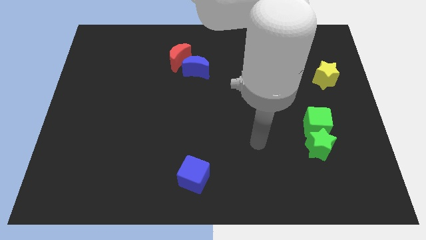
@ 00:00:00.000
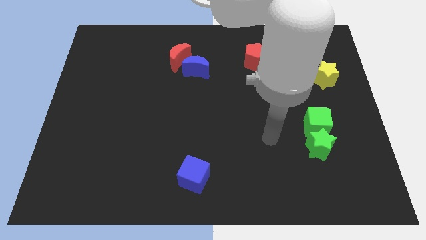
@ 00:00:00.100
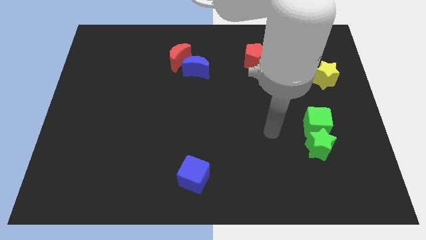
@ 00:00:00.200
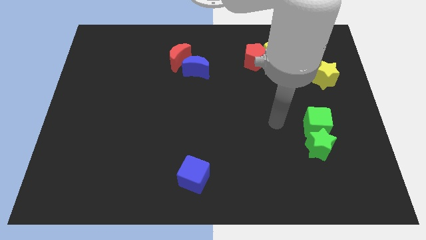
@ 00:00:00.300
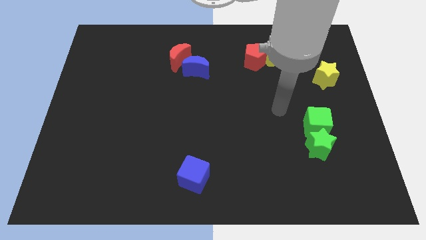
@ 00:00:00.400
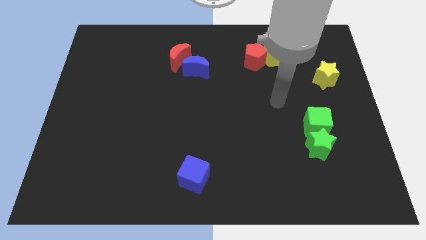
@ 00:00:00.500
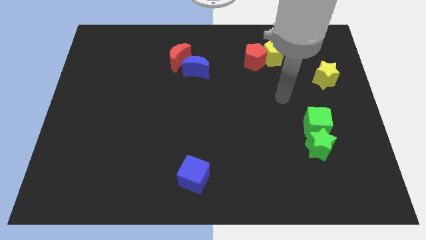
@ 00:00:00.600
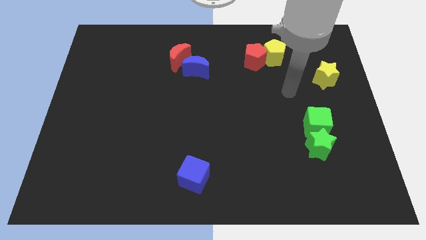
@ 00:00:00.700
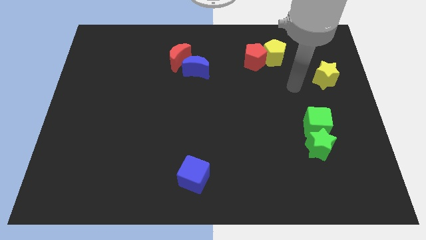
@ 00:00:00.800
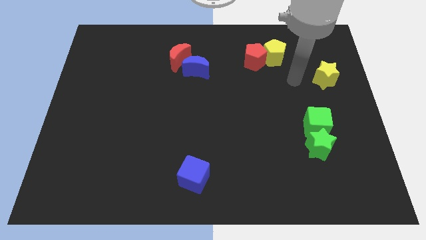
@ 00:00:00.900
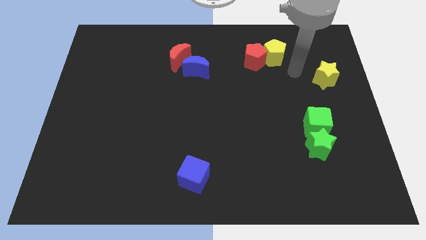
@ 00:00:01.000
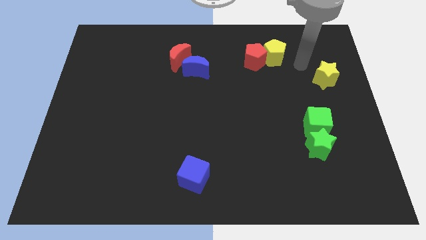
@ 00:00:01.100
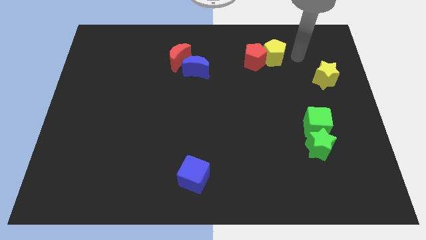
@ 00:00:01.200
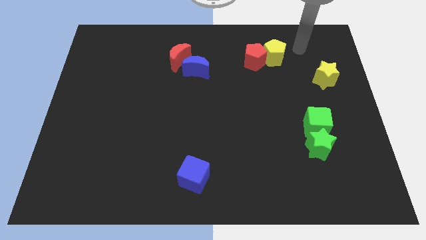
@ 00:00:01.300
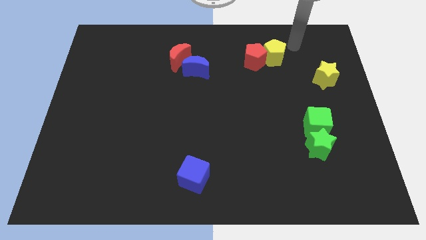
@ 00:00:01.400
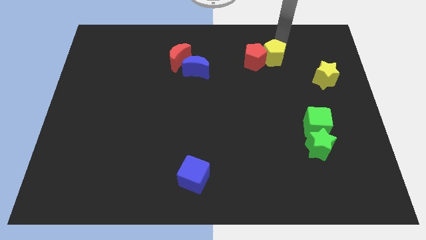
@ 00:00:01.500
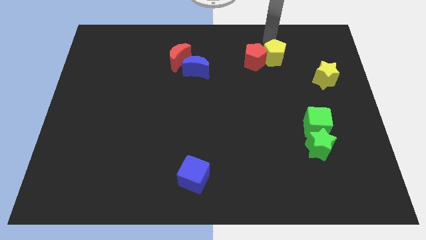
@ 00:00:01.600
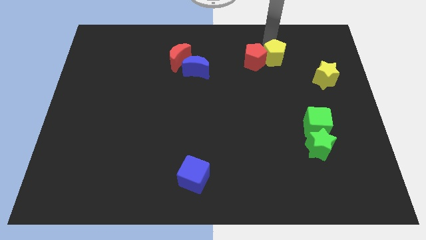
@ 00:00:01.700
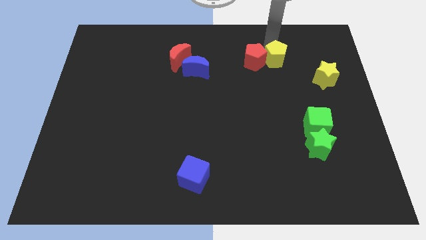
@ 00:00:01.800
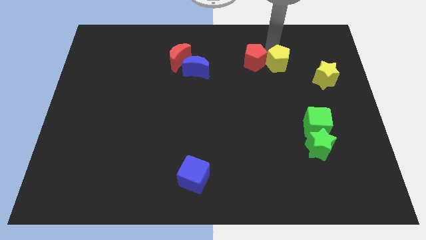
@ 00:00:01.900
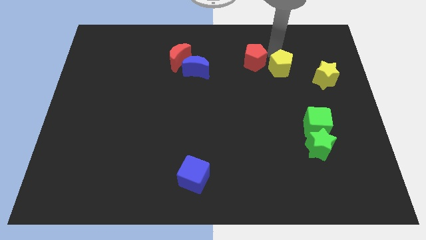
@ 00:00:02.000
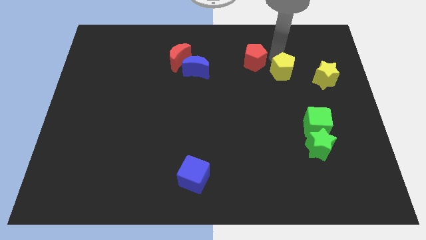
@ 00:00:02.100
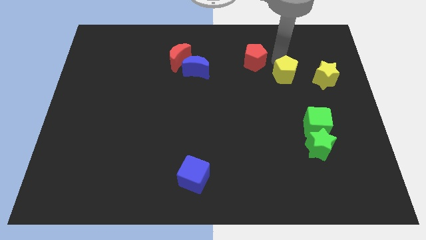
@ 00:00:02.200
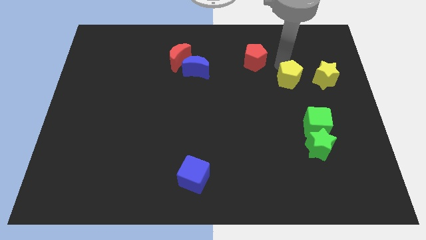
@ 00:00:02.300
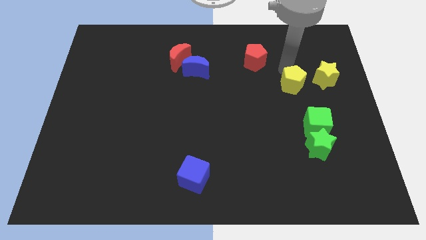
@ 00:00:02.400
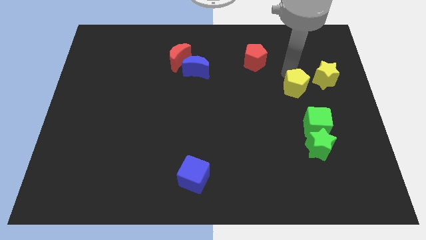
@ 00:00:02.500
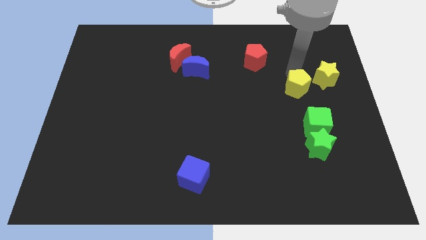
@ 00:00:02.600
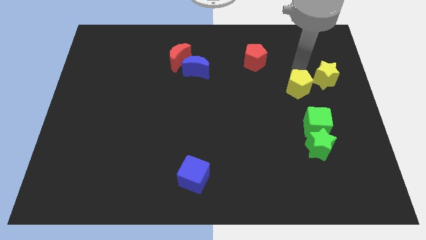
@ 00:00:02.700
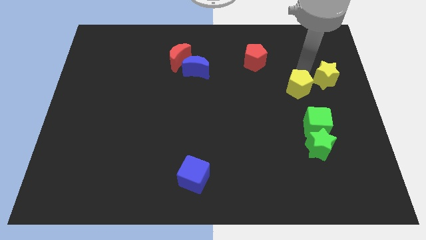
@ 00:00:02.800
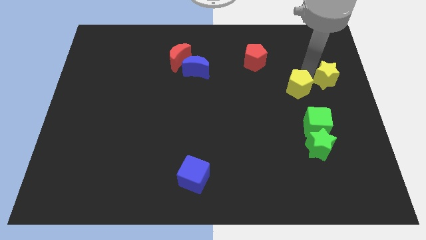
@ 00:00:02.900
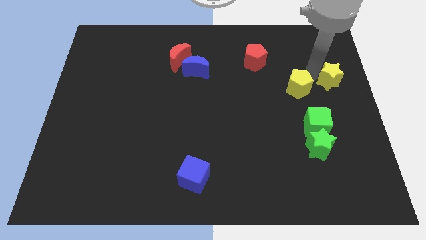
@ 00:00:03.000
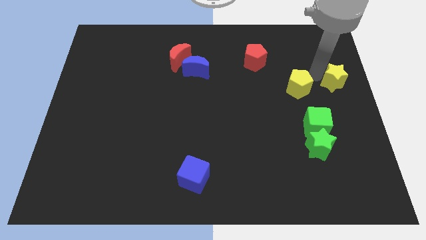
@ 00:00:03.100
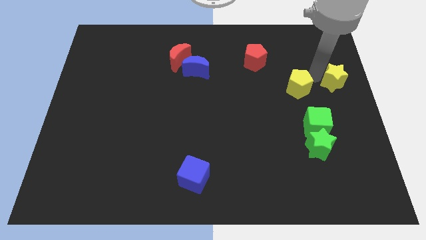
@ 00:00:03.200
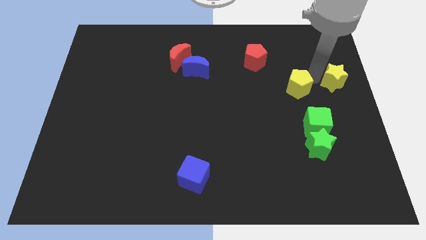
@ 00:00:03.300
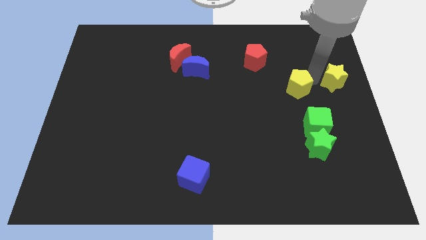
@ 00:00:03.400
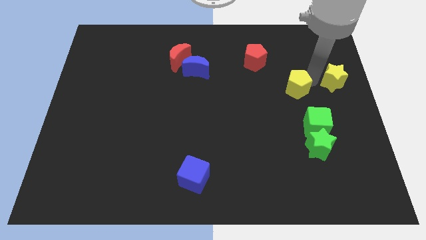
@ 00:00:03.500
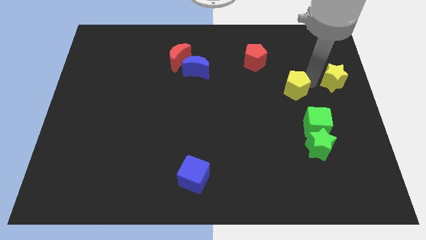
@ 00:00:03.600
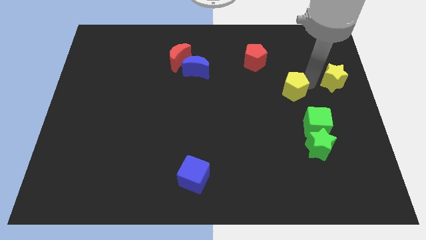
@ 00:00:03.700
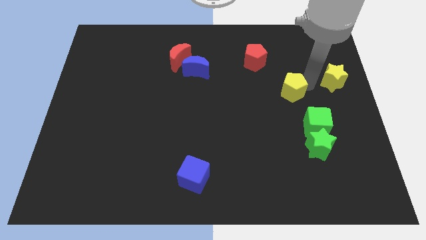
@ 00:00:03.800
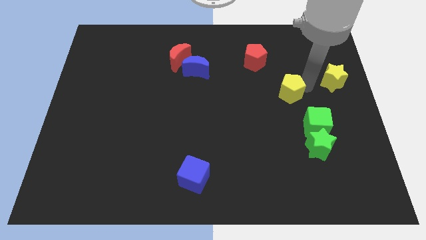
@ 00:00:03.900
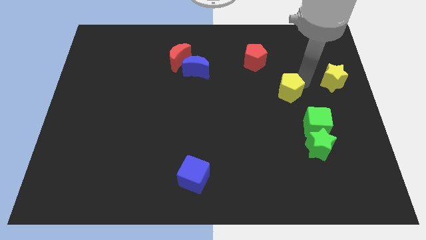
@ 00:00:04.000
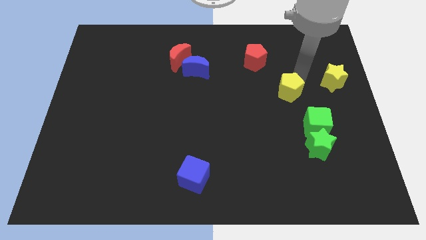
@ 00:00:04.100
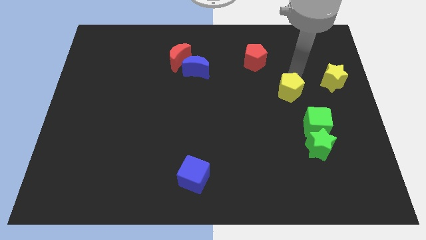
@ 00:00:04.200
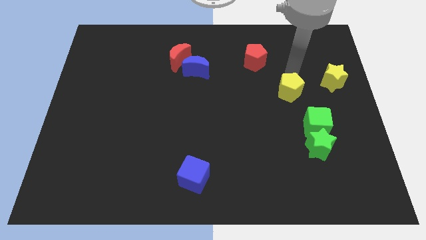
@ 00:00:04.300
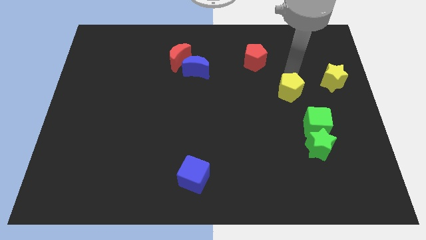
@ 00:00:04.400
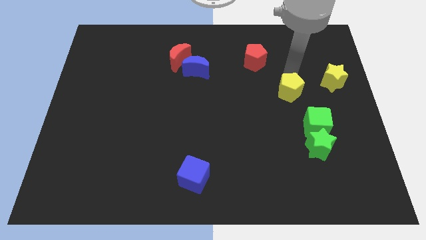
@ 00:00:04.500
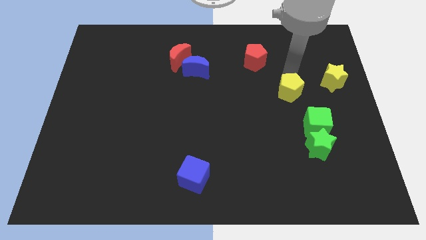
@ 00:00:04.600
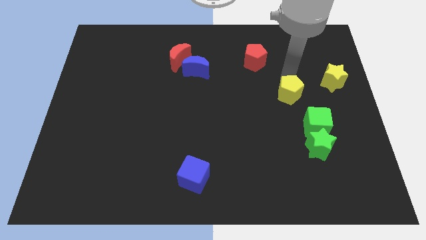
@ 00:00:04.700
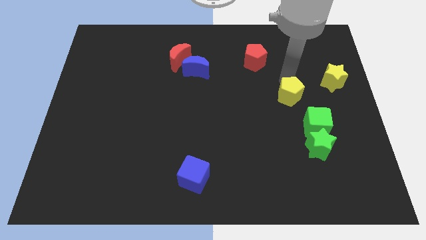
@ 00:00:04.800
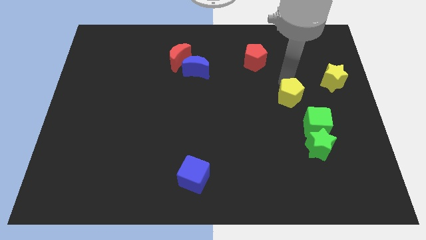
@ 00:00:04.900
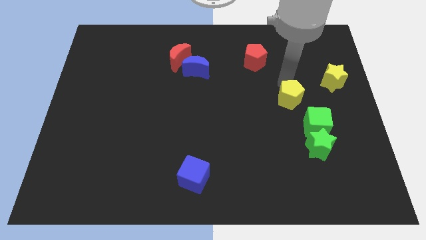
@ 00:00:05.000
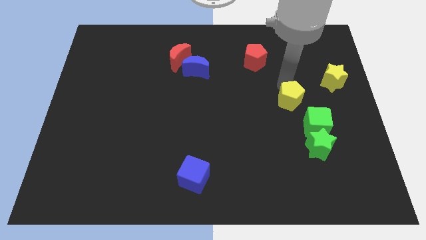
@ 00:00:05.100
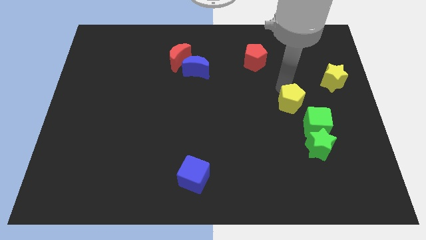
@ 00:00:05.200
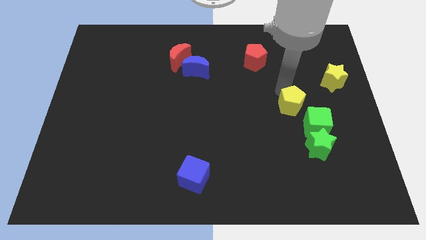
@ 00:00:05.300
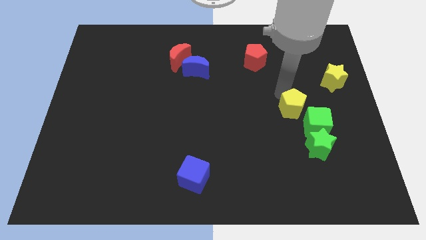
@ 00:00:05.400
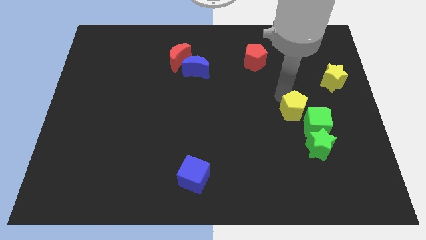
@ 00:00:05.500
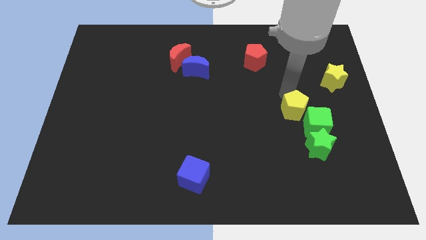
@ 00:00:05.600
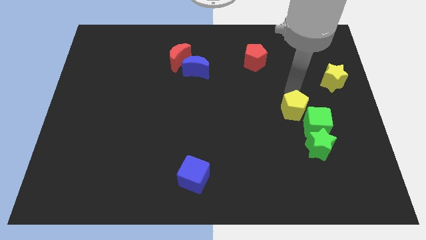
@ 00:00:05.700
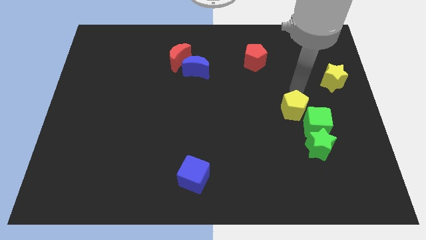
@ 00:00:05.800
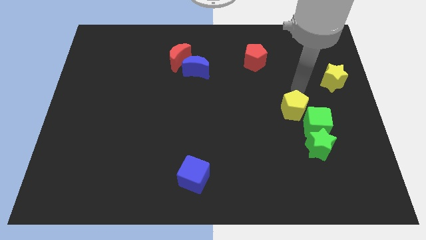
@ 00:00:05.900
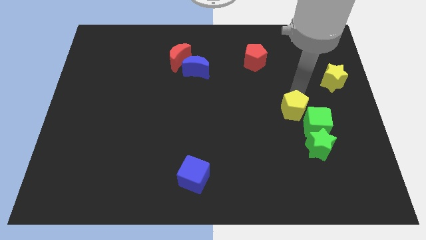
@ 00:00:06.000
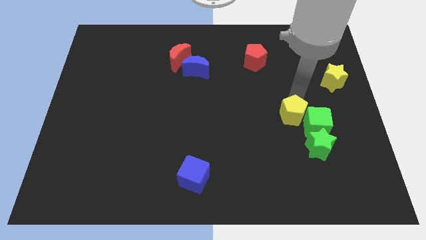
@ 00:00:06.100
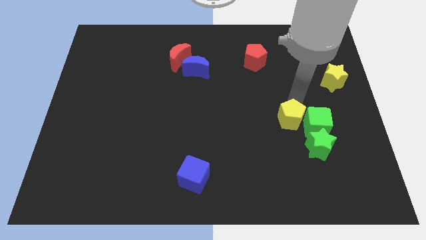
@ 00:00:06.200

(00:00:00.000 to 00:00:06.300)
slide the yellow pentagon downwards

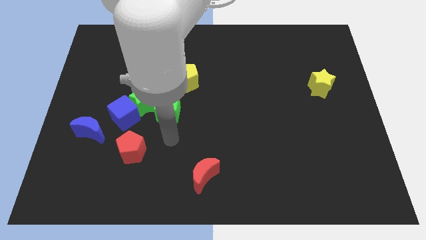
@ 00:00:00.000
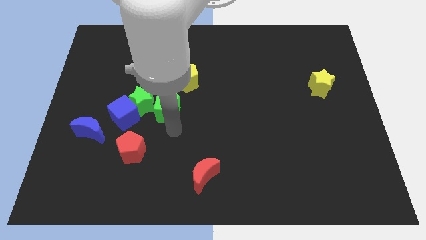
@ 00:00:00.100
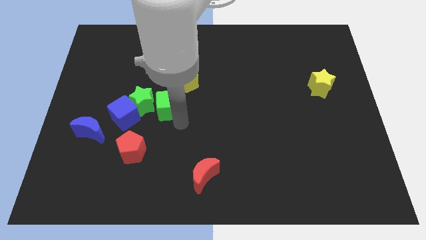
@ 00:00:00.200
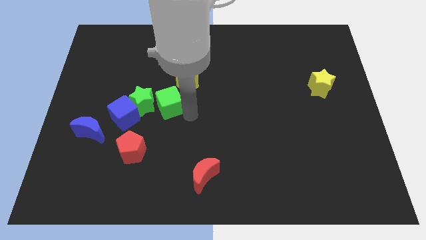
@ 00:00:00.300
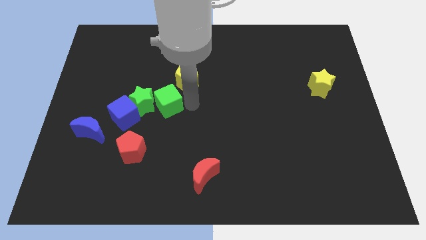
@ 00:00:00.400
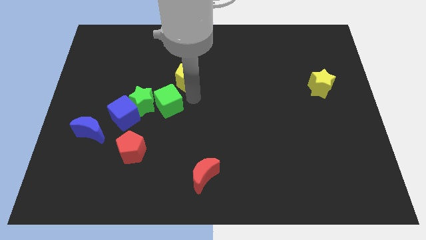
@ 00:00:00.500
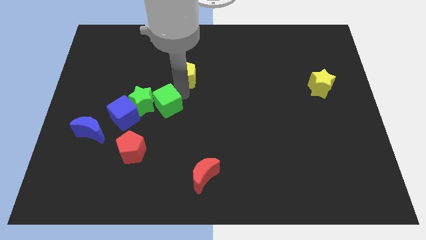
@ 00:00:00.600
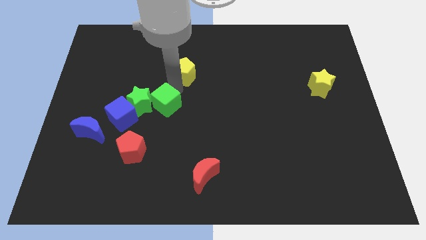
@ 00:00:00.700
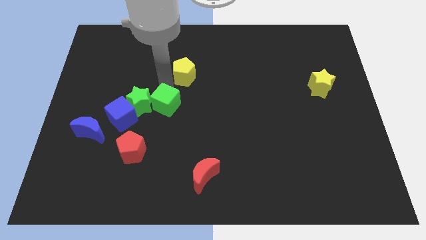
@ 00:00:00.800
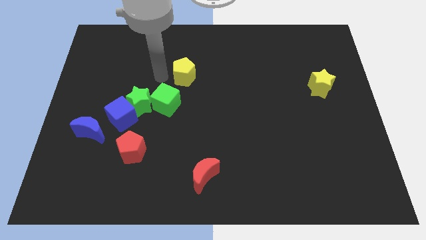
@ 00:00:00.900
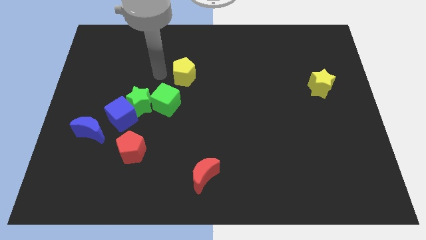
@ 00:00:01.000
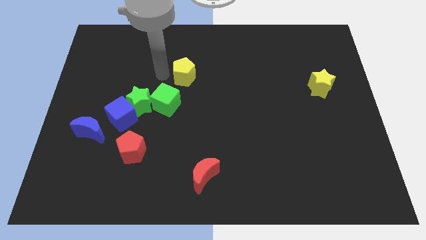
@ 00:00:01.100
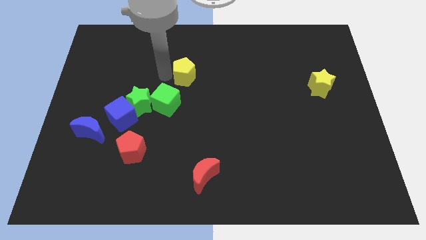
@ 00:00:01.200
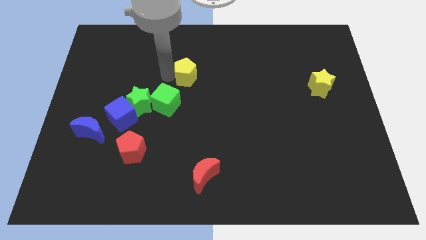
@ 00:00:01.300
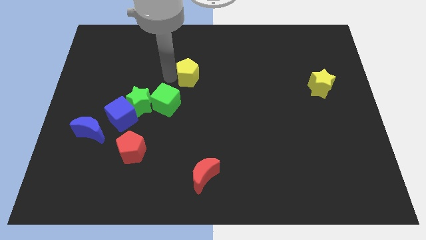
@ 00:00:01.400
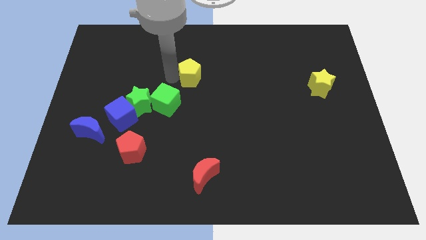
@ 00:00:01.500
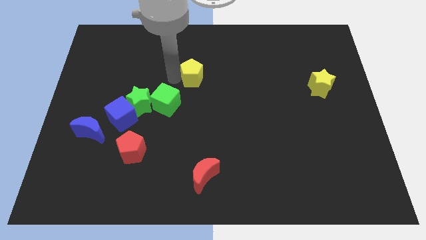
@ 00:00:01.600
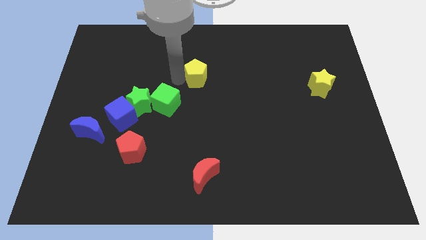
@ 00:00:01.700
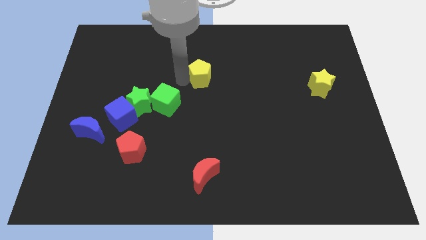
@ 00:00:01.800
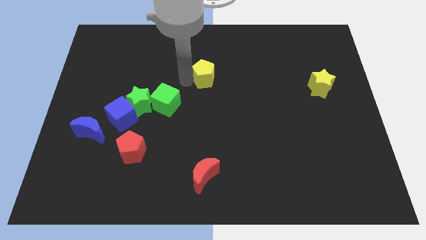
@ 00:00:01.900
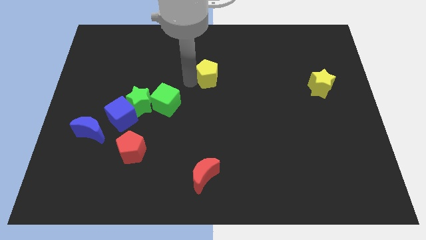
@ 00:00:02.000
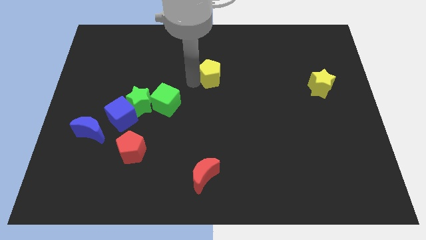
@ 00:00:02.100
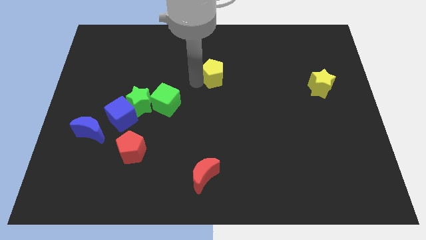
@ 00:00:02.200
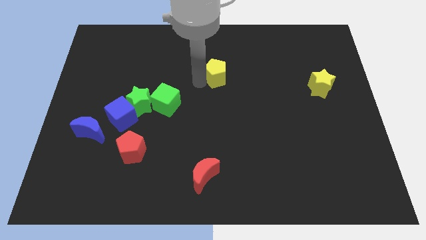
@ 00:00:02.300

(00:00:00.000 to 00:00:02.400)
push the yellow pentagon a little bit to the right
